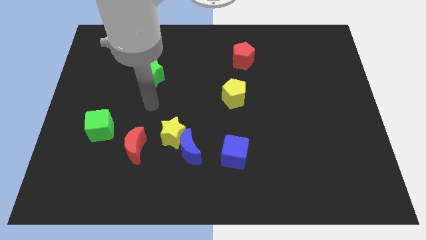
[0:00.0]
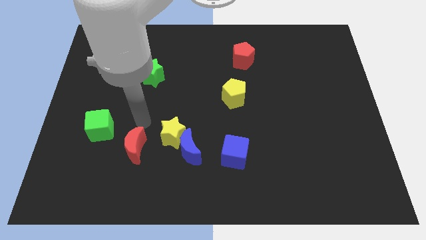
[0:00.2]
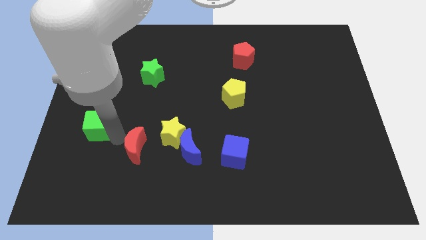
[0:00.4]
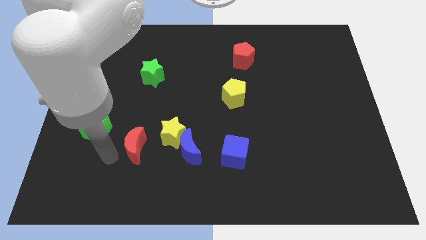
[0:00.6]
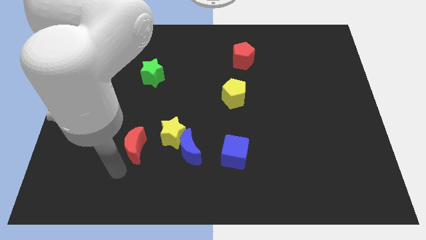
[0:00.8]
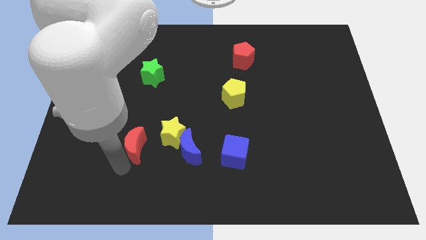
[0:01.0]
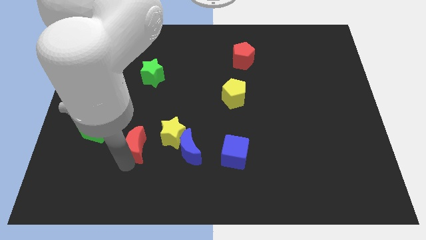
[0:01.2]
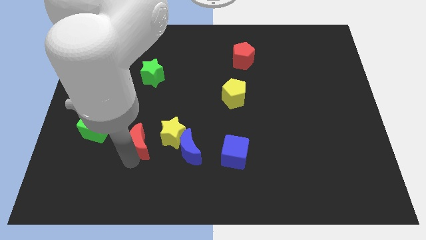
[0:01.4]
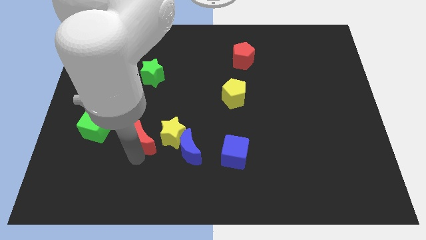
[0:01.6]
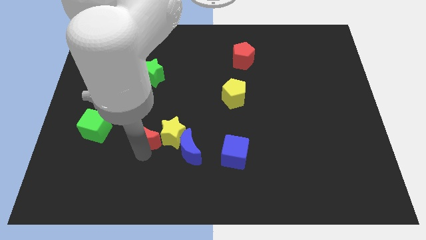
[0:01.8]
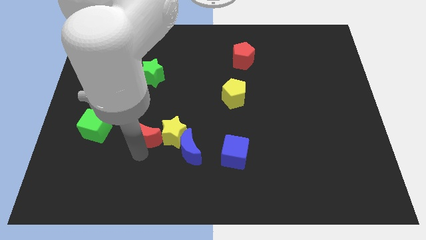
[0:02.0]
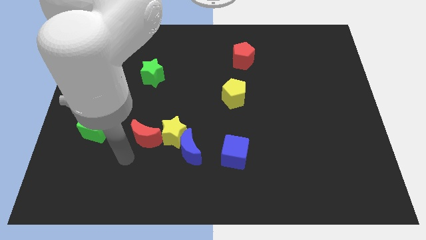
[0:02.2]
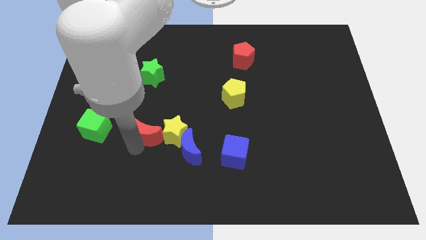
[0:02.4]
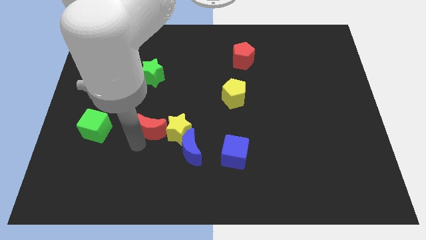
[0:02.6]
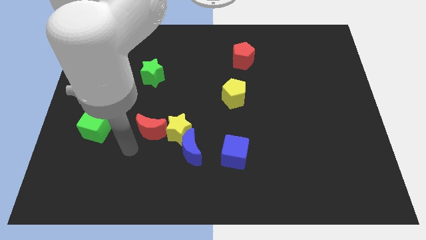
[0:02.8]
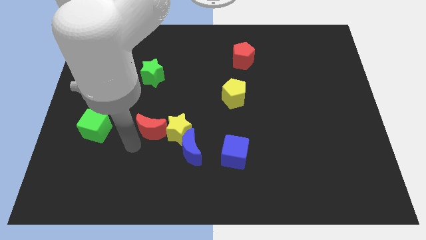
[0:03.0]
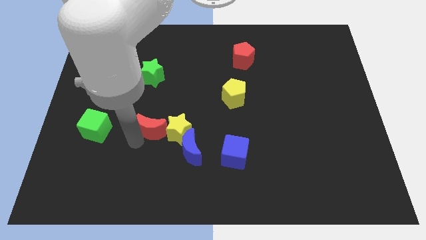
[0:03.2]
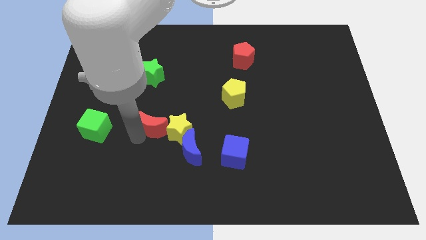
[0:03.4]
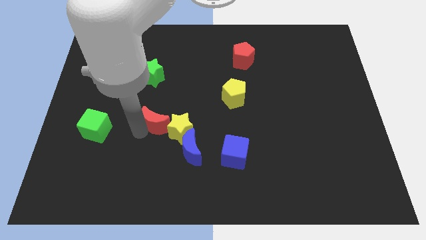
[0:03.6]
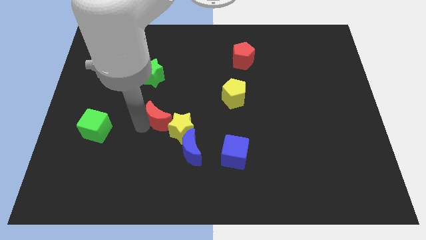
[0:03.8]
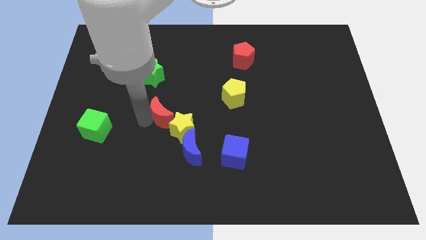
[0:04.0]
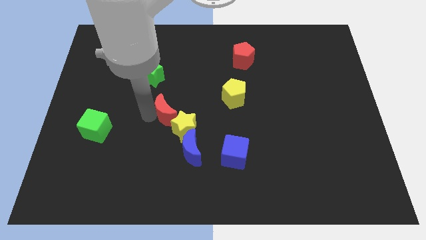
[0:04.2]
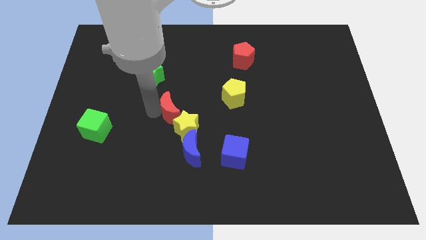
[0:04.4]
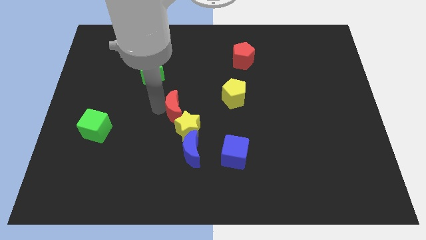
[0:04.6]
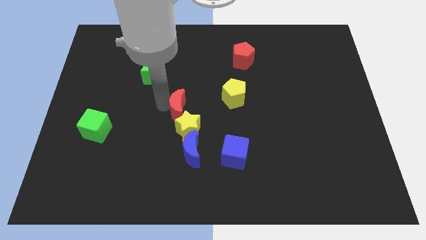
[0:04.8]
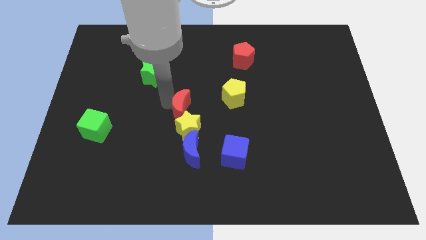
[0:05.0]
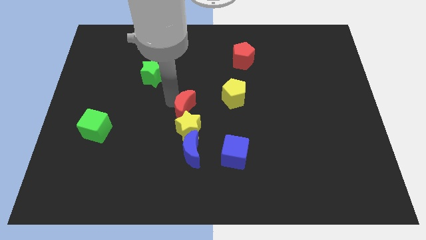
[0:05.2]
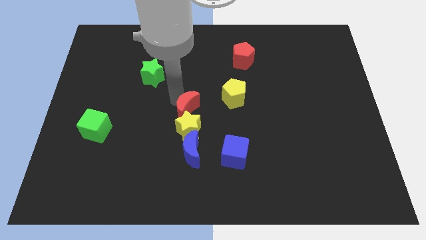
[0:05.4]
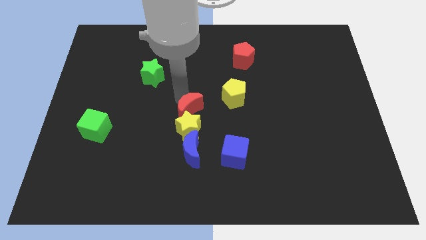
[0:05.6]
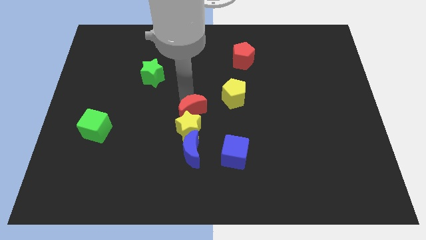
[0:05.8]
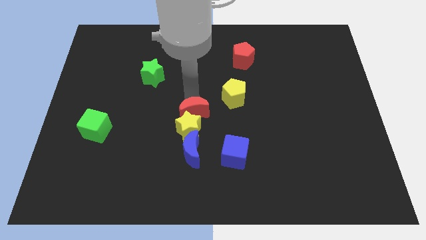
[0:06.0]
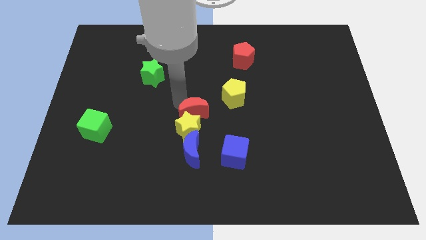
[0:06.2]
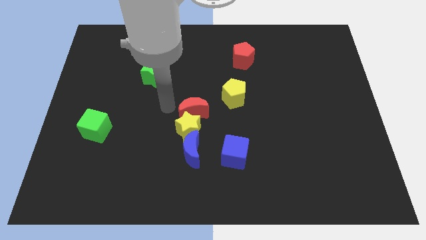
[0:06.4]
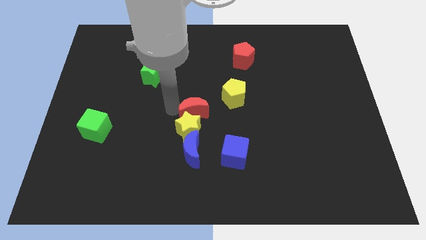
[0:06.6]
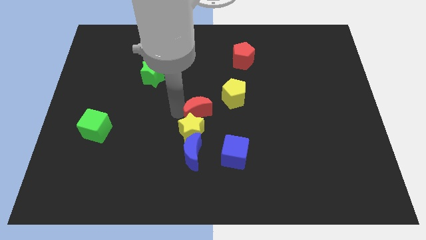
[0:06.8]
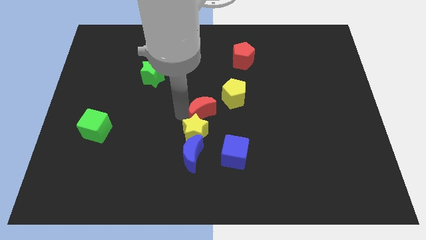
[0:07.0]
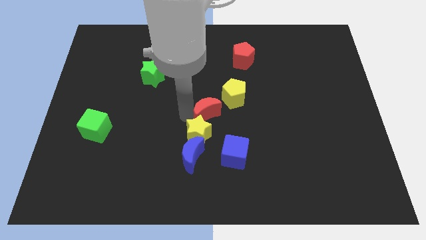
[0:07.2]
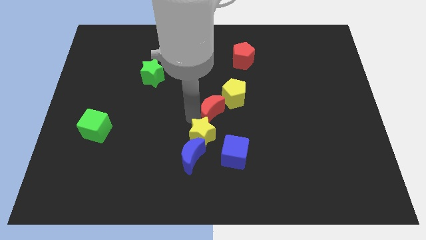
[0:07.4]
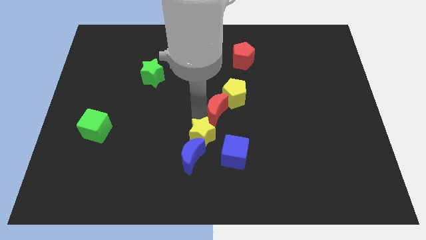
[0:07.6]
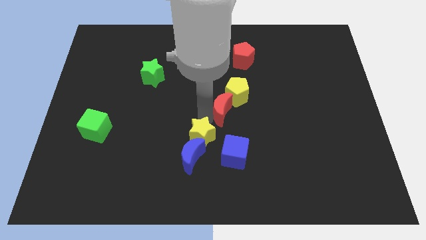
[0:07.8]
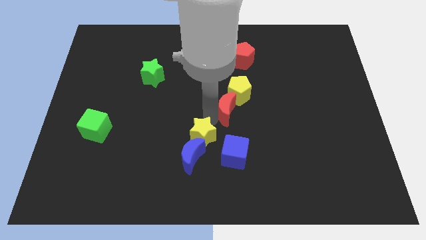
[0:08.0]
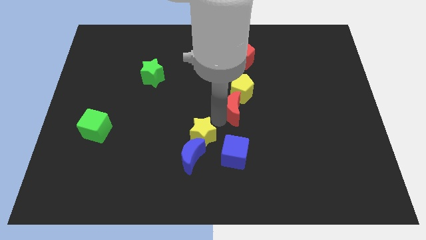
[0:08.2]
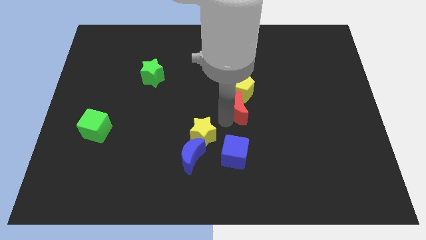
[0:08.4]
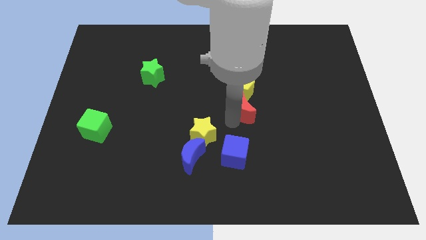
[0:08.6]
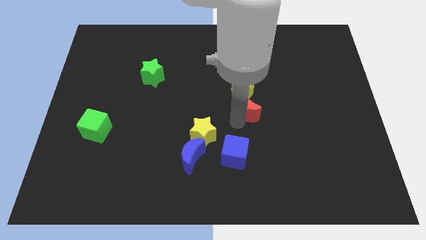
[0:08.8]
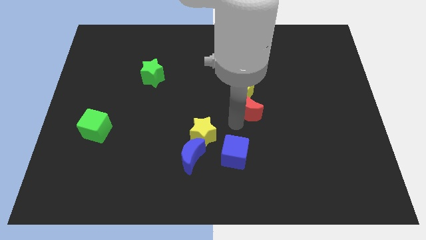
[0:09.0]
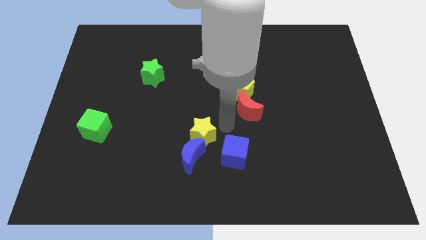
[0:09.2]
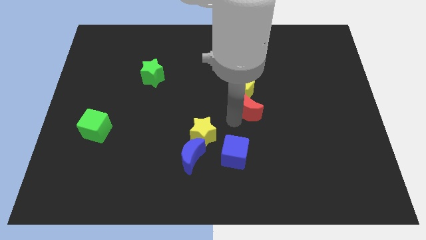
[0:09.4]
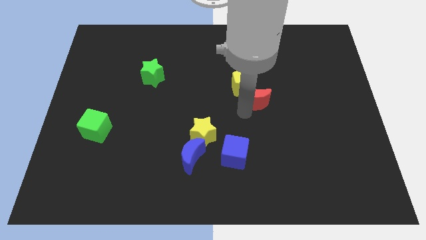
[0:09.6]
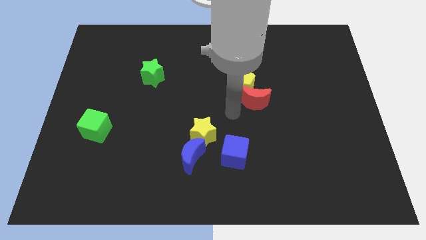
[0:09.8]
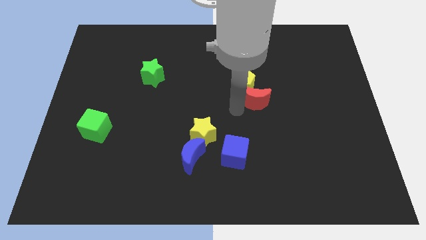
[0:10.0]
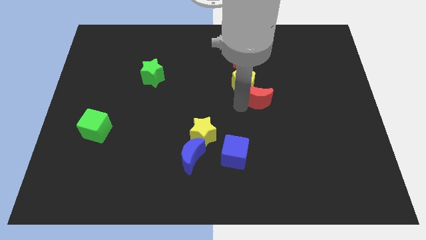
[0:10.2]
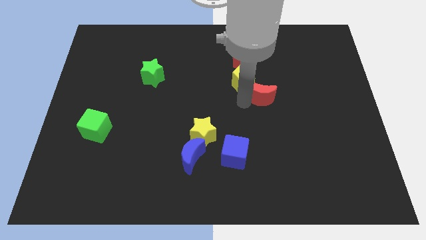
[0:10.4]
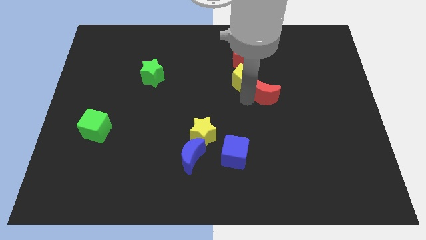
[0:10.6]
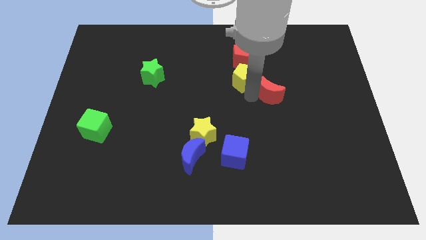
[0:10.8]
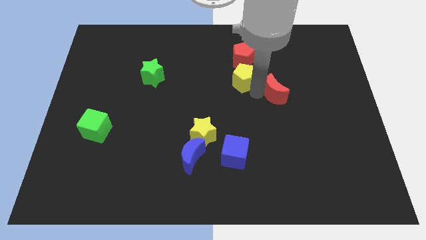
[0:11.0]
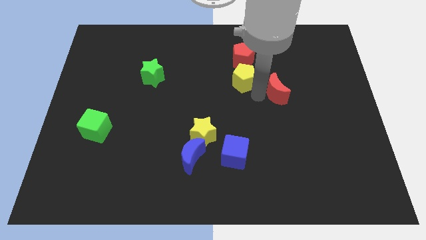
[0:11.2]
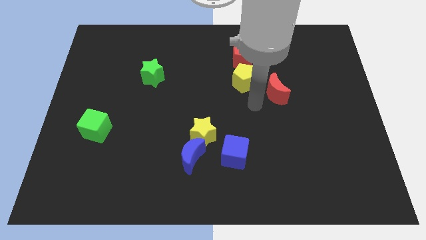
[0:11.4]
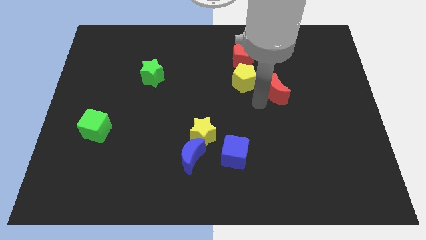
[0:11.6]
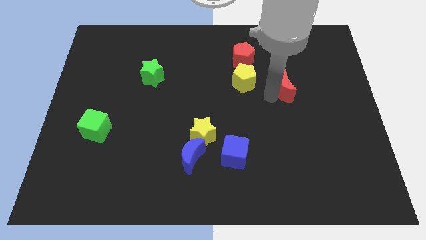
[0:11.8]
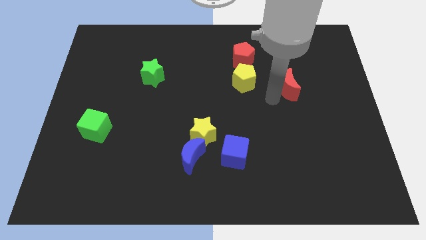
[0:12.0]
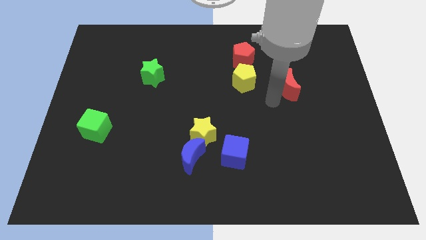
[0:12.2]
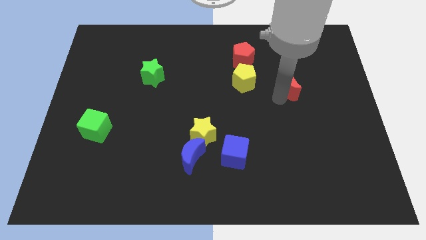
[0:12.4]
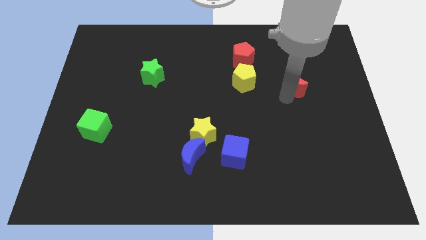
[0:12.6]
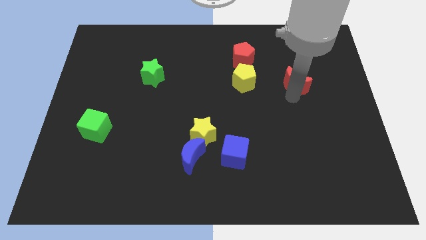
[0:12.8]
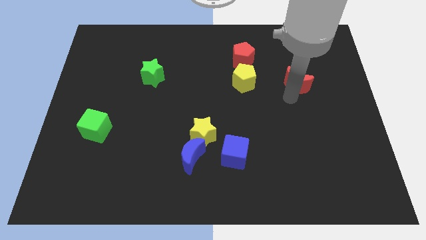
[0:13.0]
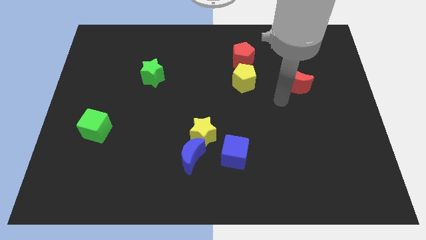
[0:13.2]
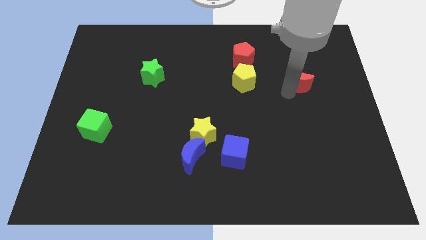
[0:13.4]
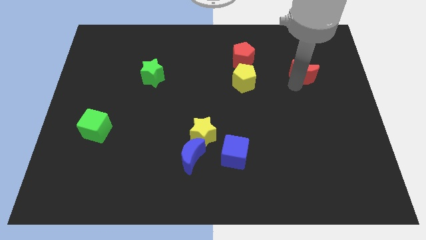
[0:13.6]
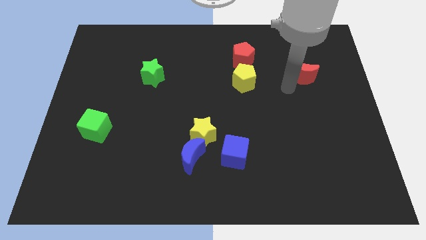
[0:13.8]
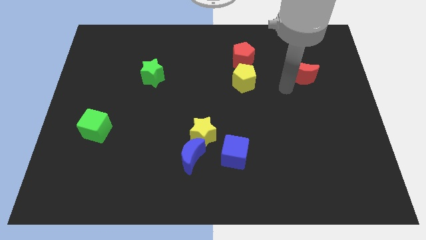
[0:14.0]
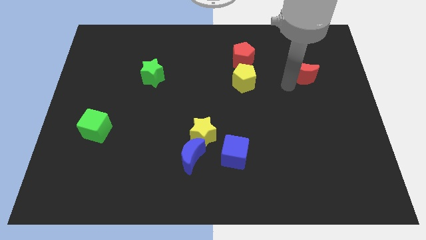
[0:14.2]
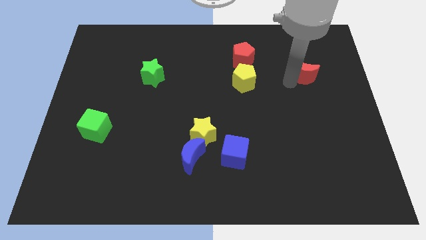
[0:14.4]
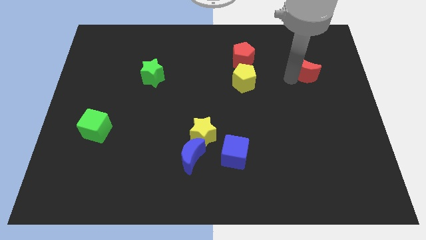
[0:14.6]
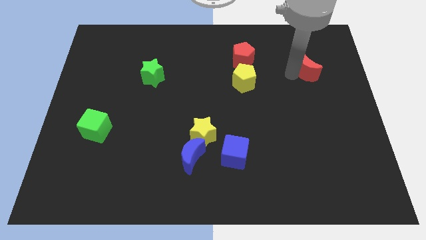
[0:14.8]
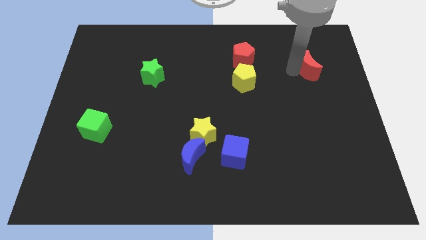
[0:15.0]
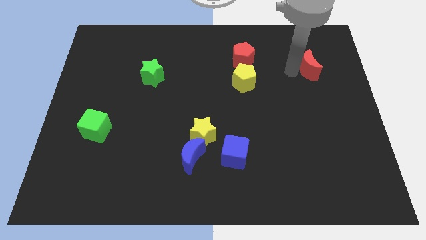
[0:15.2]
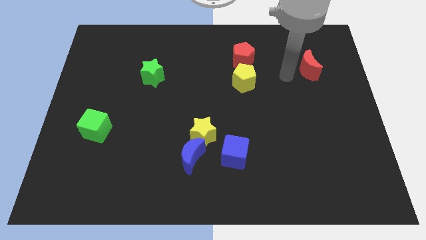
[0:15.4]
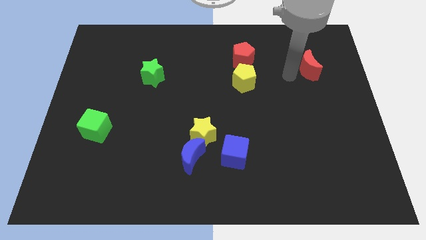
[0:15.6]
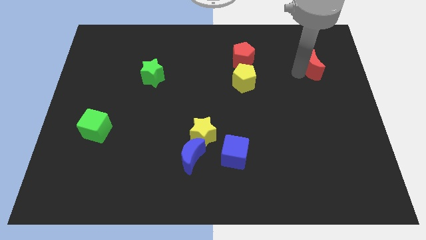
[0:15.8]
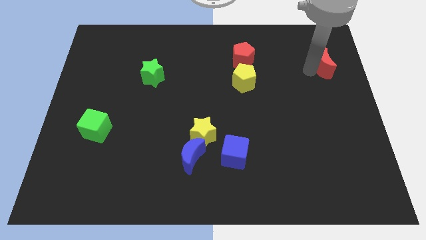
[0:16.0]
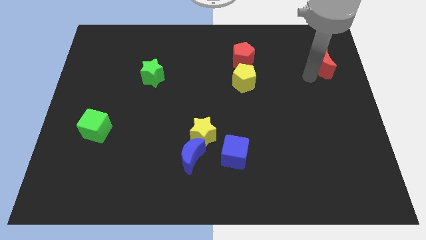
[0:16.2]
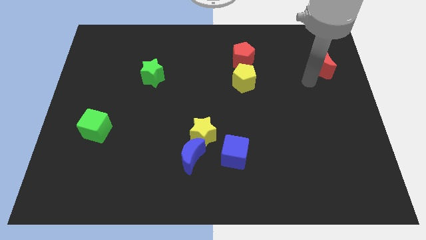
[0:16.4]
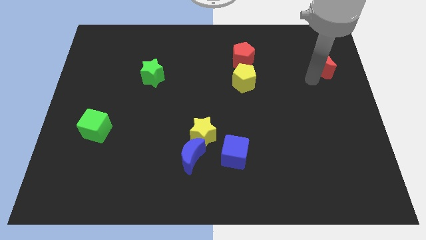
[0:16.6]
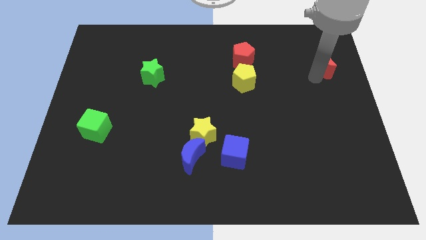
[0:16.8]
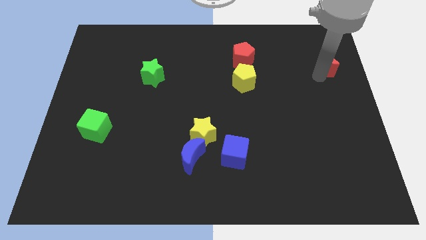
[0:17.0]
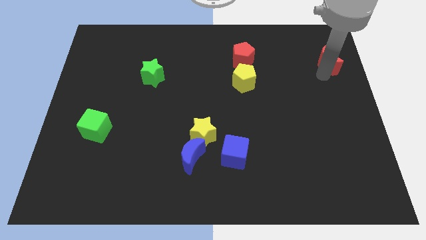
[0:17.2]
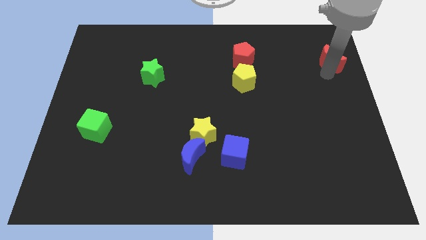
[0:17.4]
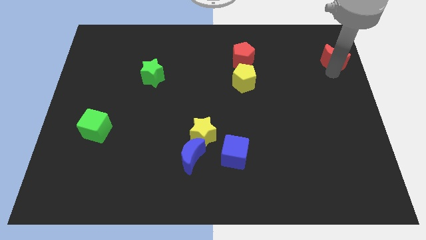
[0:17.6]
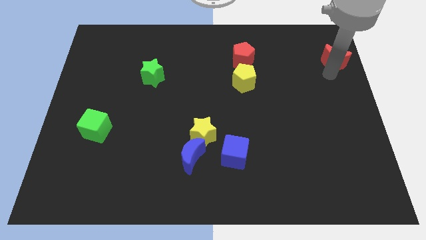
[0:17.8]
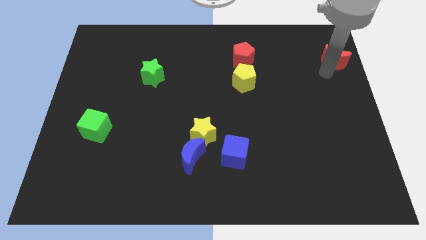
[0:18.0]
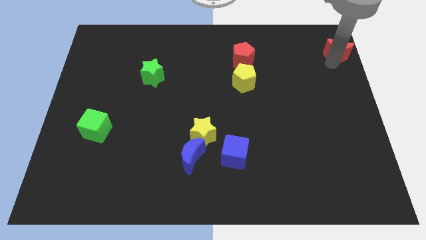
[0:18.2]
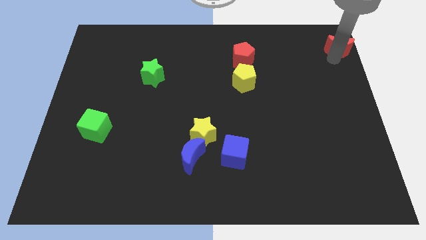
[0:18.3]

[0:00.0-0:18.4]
move the red moon to the upper right corner
